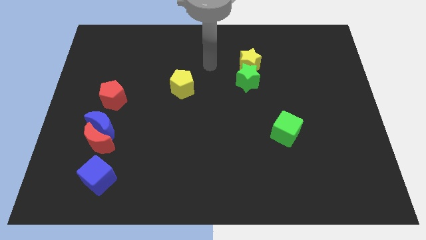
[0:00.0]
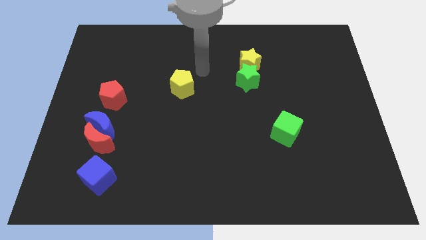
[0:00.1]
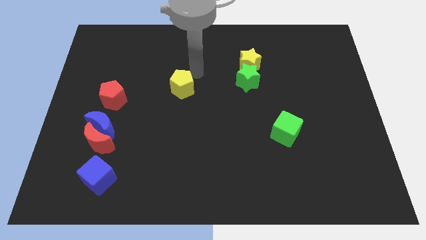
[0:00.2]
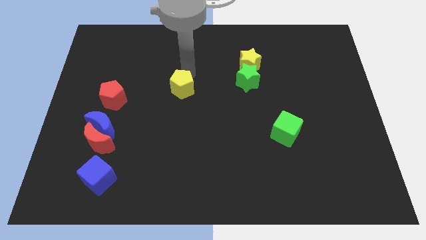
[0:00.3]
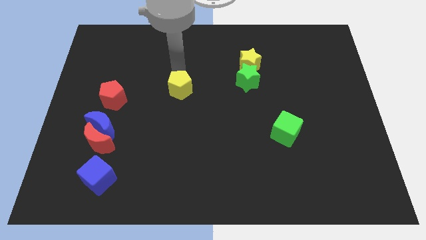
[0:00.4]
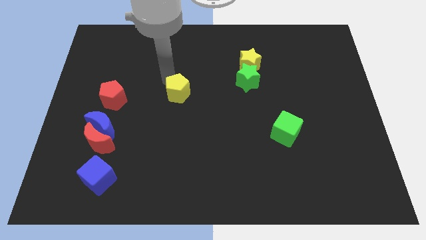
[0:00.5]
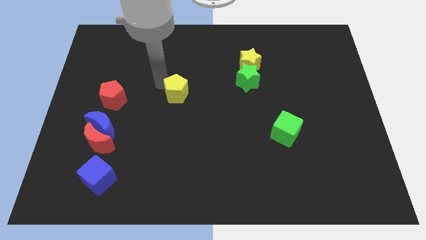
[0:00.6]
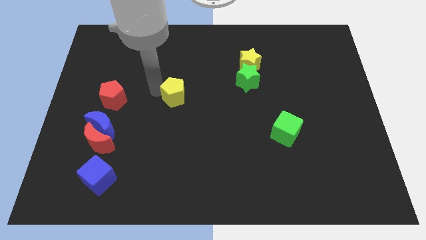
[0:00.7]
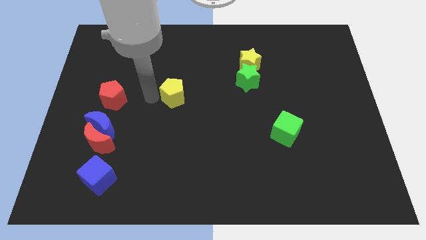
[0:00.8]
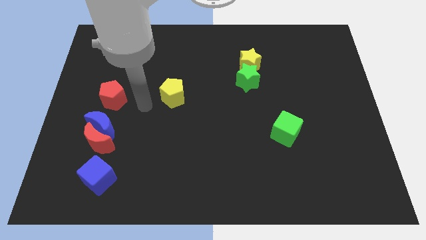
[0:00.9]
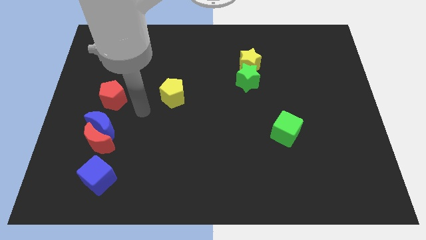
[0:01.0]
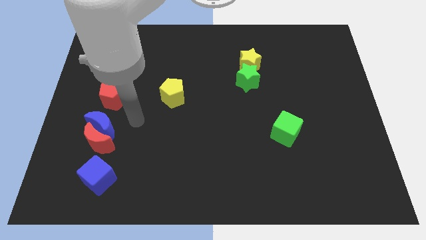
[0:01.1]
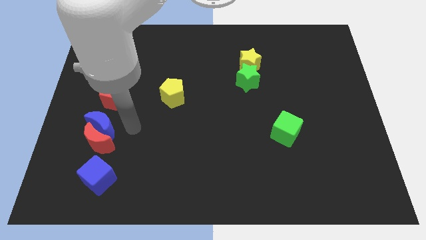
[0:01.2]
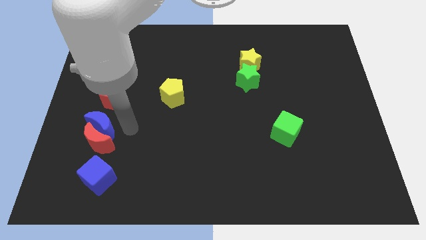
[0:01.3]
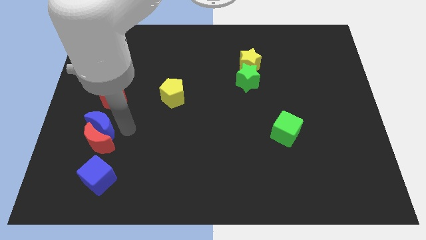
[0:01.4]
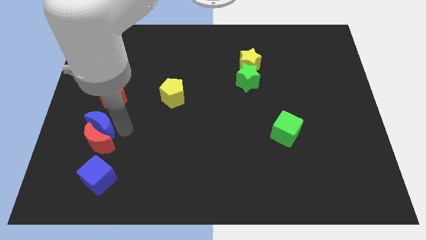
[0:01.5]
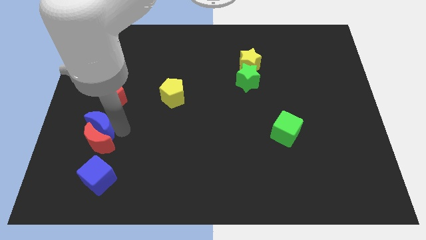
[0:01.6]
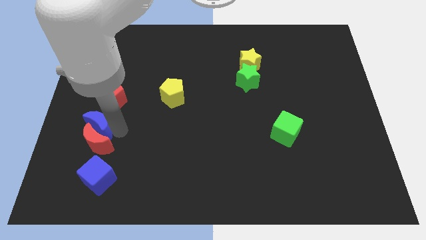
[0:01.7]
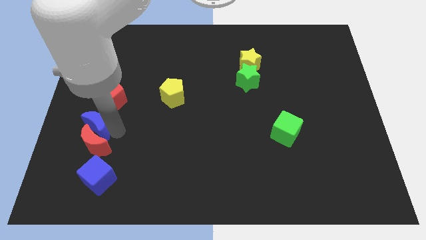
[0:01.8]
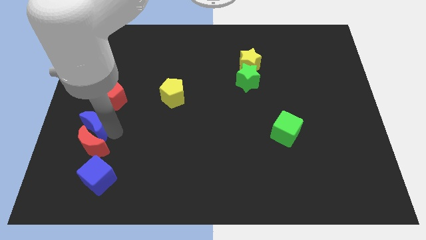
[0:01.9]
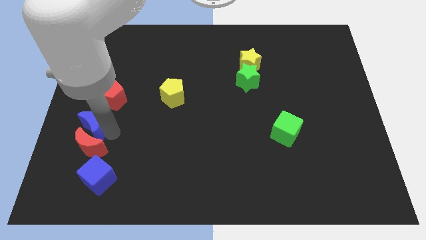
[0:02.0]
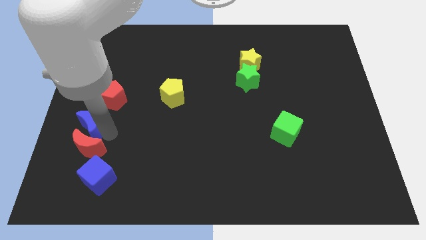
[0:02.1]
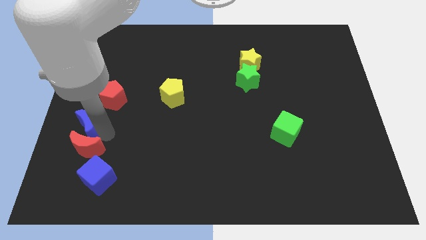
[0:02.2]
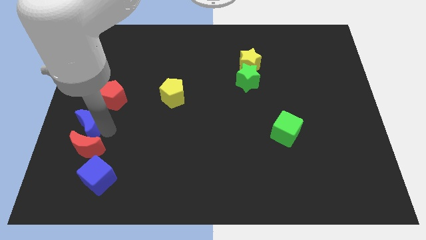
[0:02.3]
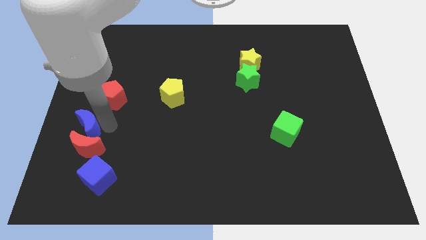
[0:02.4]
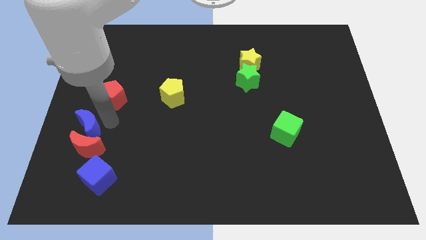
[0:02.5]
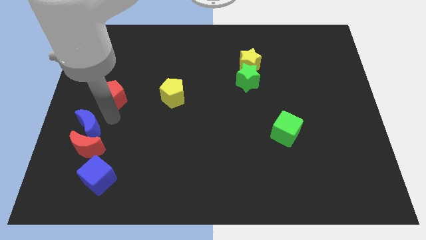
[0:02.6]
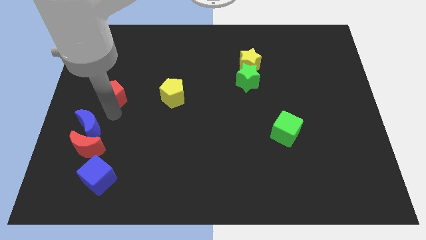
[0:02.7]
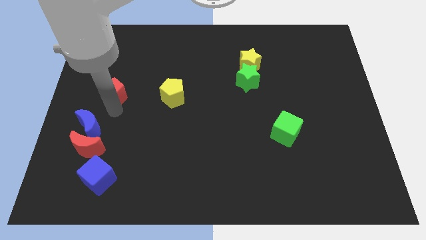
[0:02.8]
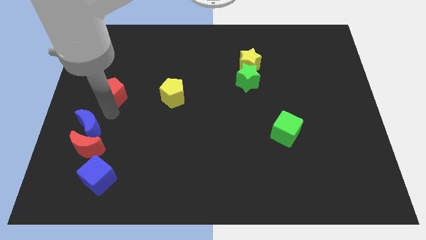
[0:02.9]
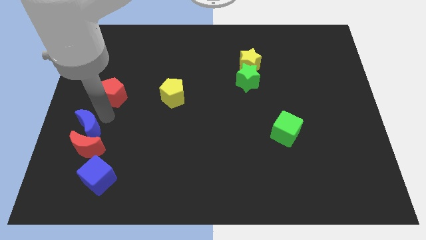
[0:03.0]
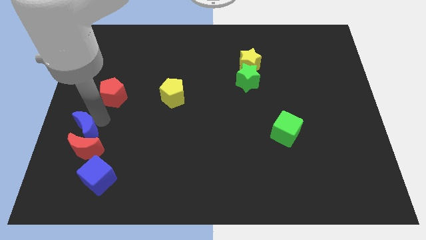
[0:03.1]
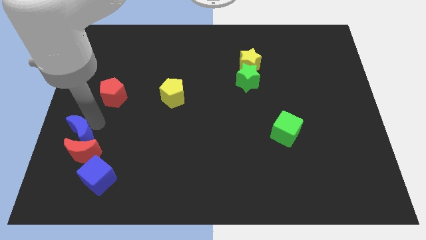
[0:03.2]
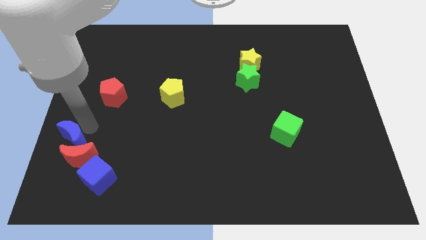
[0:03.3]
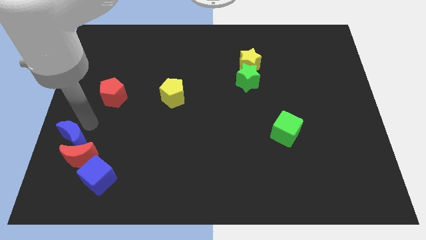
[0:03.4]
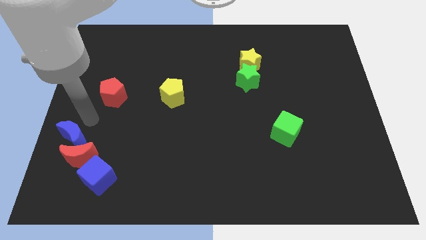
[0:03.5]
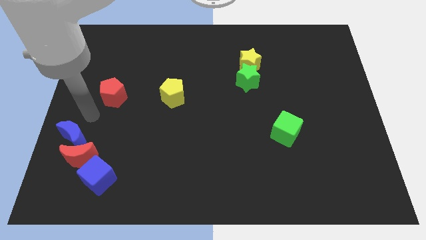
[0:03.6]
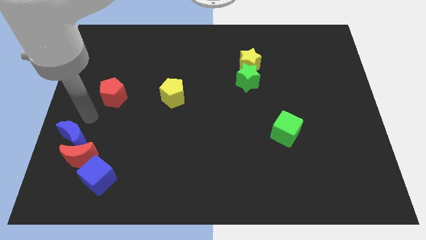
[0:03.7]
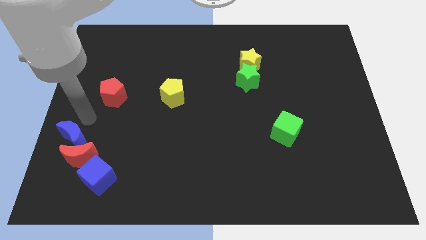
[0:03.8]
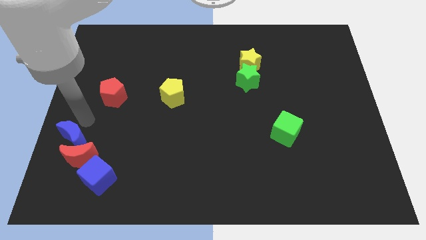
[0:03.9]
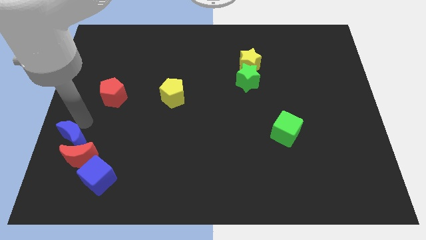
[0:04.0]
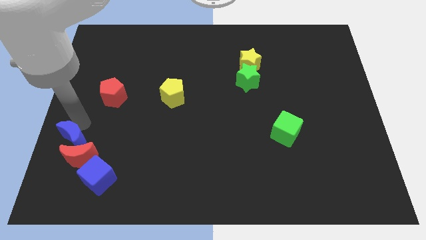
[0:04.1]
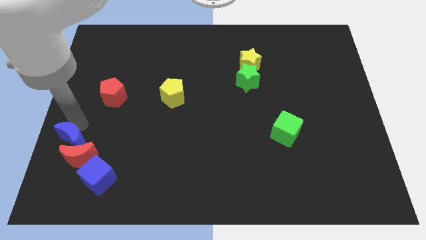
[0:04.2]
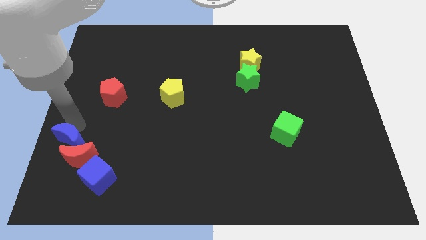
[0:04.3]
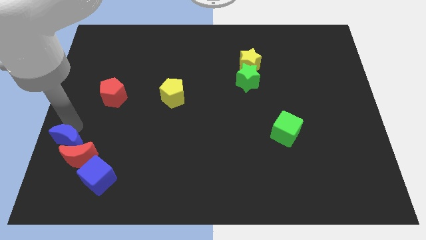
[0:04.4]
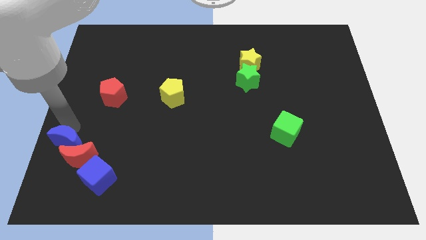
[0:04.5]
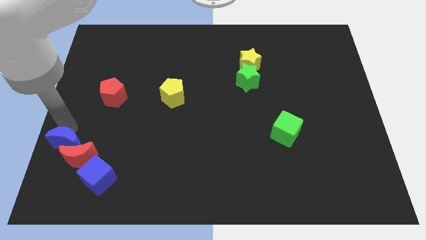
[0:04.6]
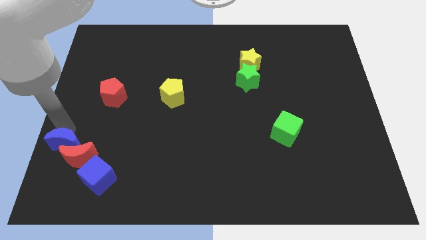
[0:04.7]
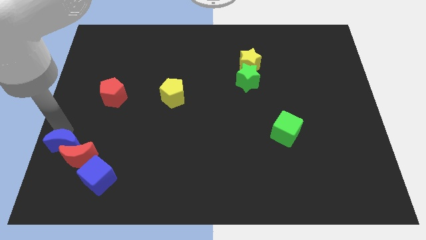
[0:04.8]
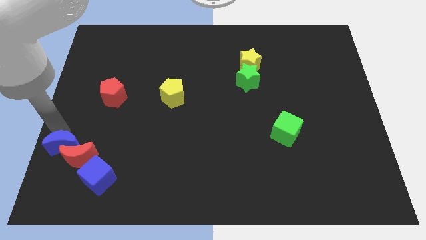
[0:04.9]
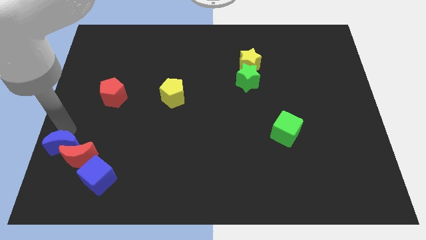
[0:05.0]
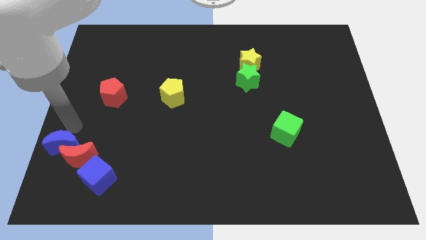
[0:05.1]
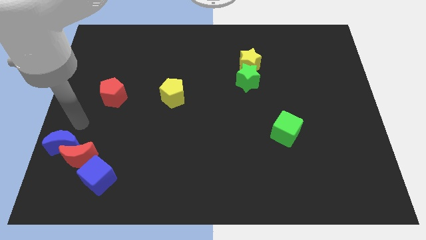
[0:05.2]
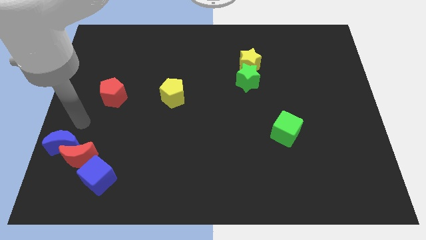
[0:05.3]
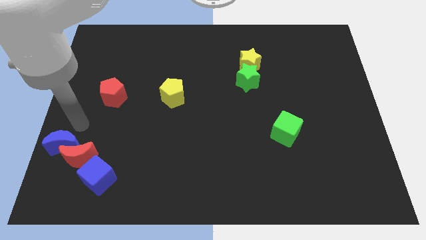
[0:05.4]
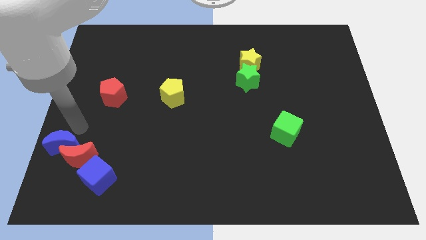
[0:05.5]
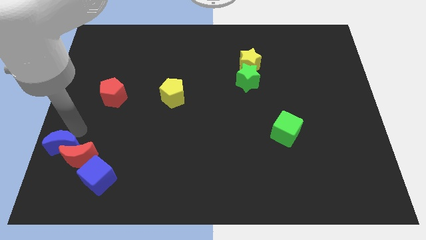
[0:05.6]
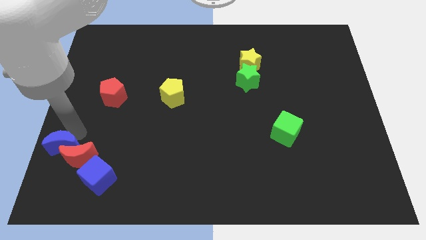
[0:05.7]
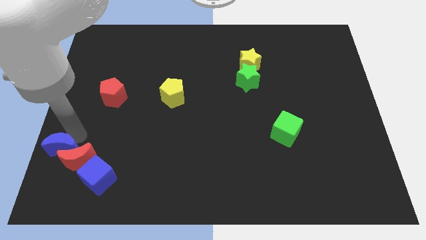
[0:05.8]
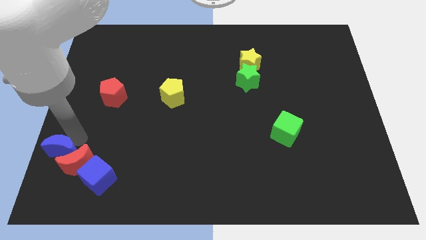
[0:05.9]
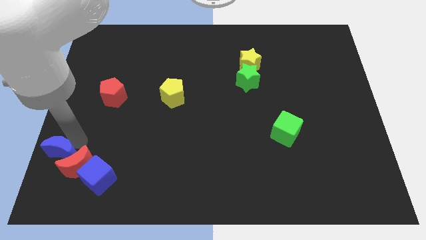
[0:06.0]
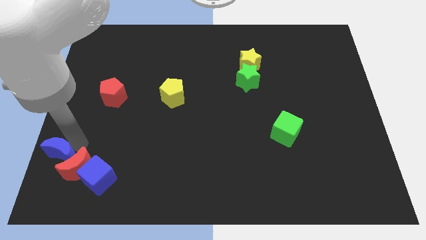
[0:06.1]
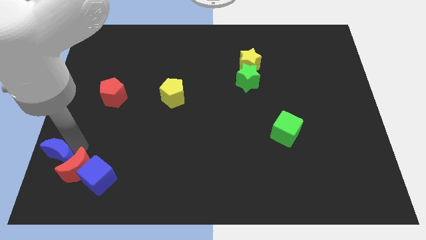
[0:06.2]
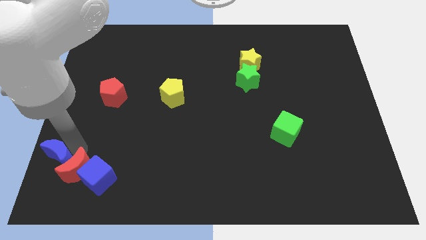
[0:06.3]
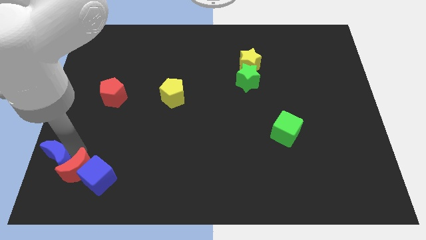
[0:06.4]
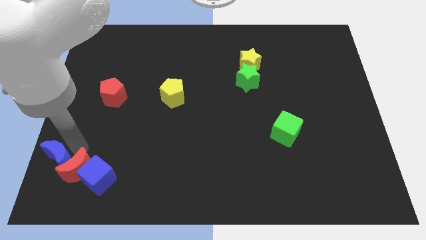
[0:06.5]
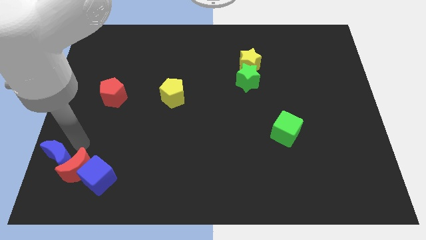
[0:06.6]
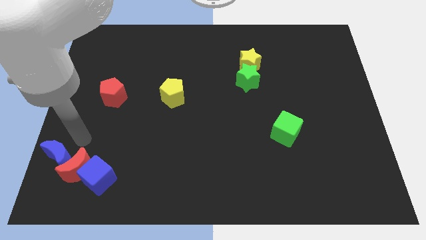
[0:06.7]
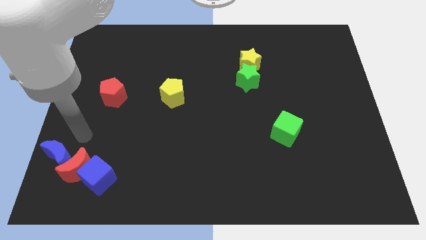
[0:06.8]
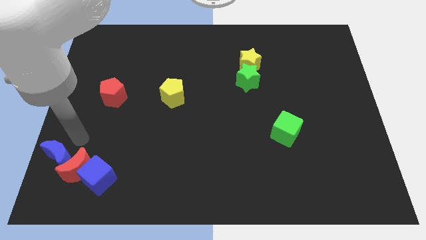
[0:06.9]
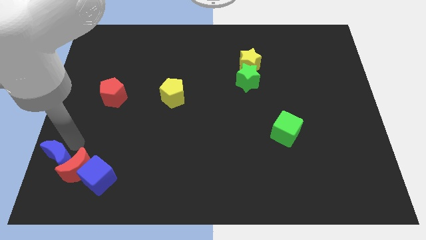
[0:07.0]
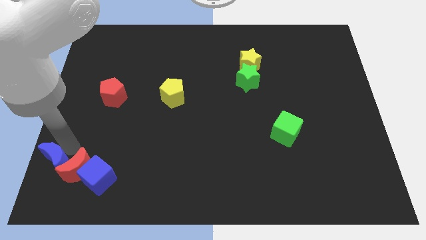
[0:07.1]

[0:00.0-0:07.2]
slide the blue moon to the bottom left corner
